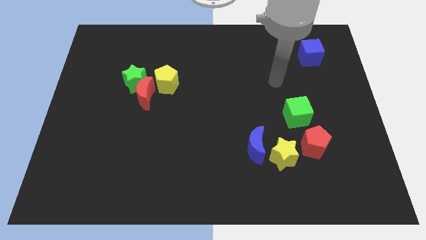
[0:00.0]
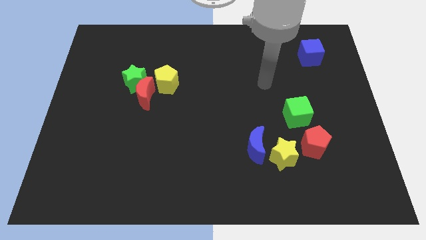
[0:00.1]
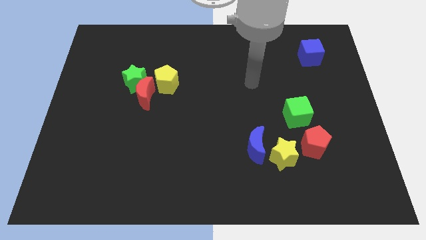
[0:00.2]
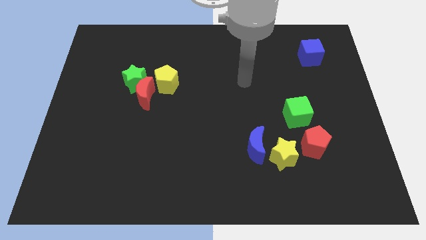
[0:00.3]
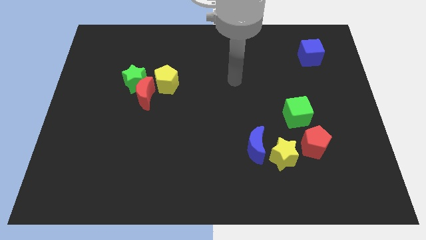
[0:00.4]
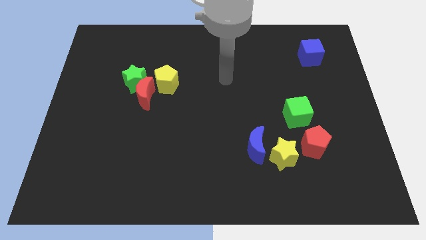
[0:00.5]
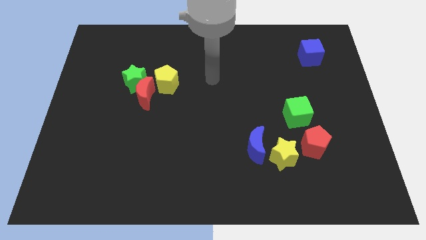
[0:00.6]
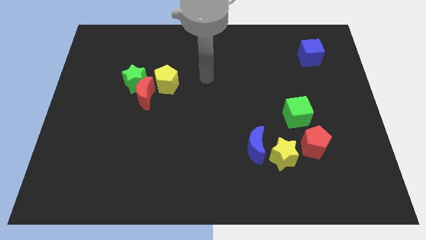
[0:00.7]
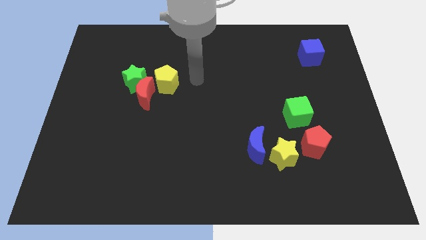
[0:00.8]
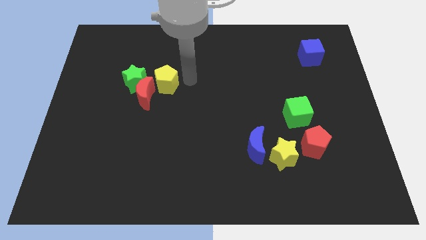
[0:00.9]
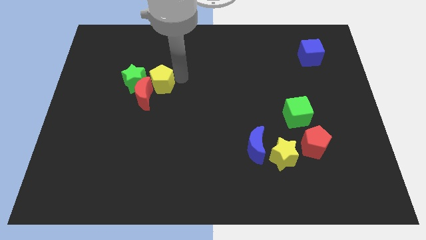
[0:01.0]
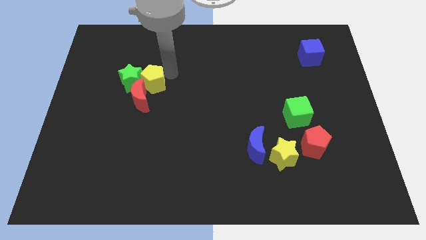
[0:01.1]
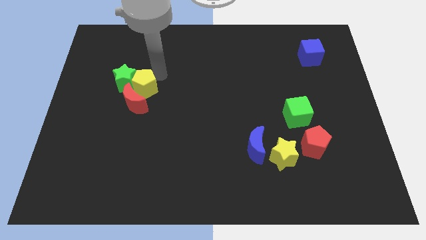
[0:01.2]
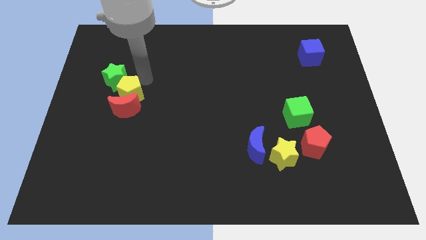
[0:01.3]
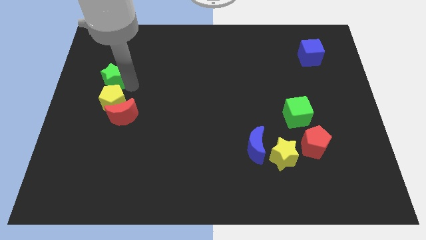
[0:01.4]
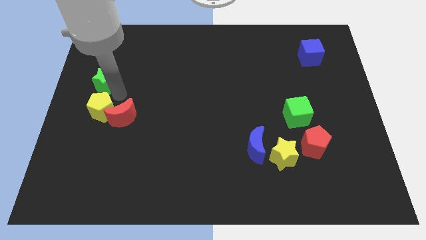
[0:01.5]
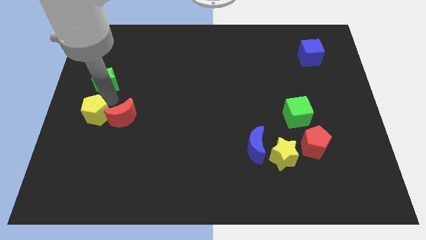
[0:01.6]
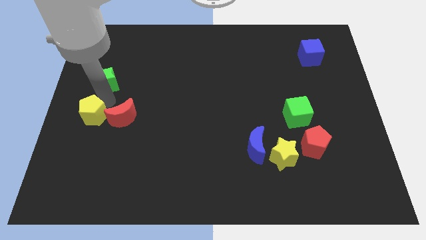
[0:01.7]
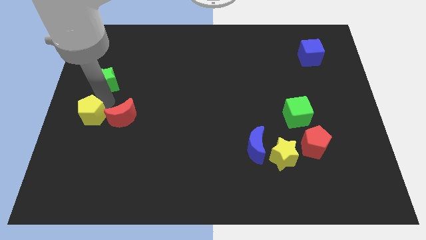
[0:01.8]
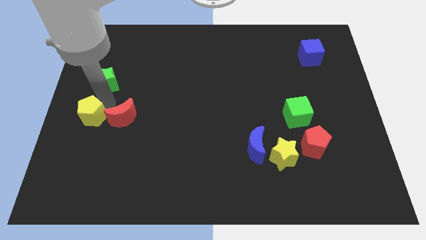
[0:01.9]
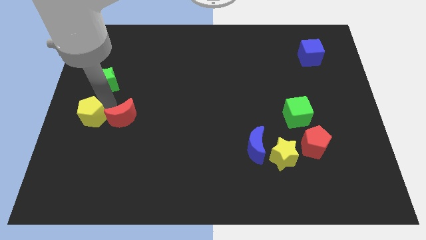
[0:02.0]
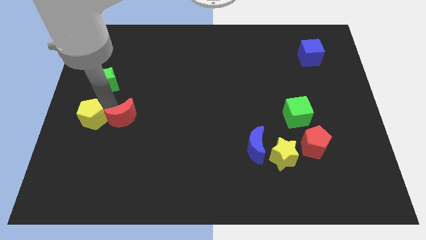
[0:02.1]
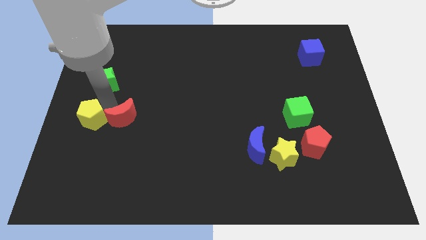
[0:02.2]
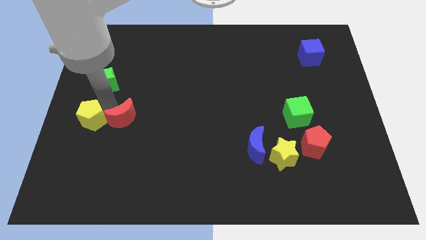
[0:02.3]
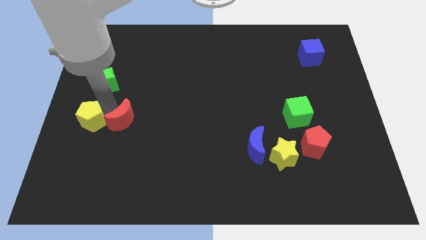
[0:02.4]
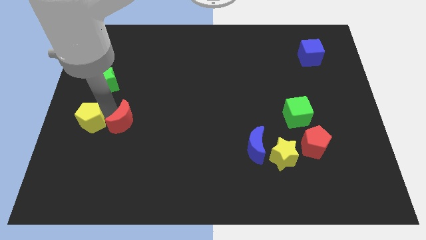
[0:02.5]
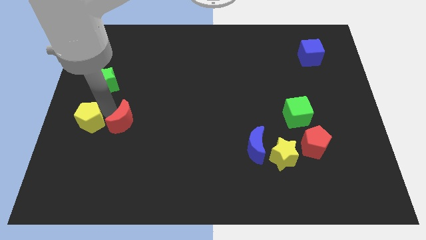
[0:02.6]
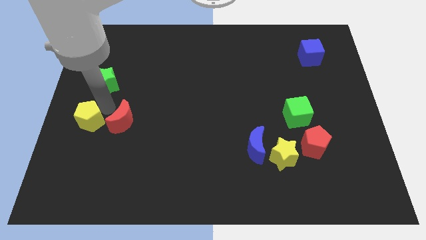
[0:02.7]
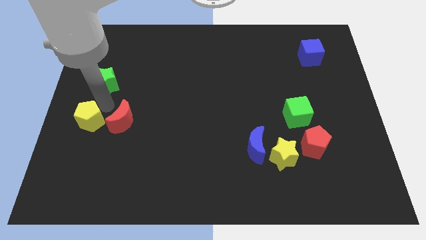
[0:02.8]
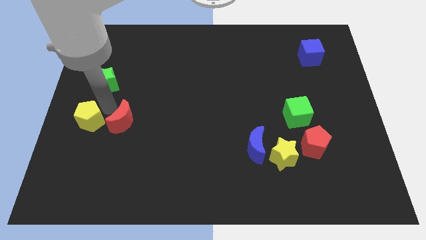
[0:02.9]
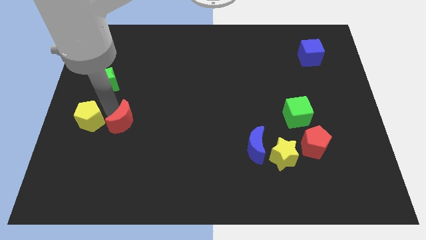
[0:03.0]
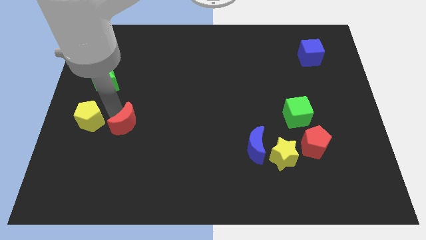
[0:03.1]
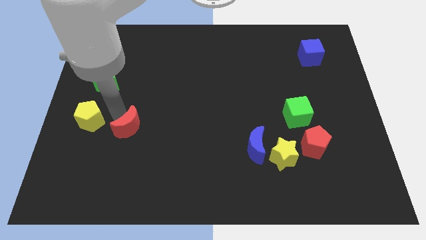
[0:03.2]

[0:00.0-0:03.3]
separate the red moon from the green star and yellow pentagon

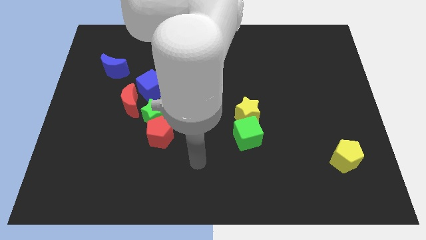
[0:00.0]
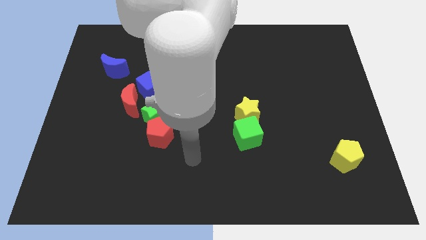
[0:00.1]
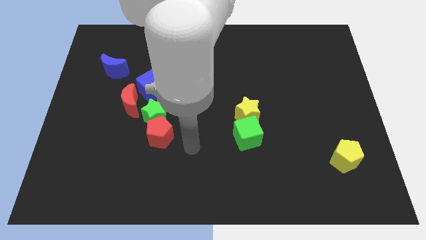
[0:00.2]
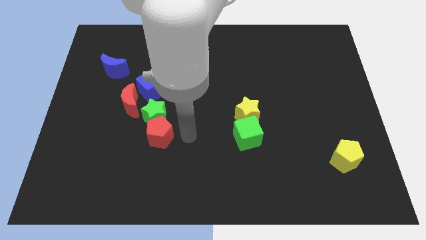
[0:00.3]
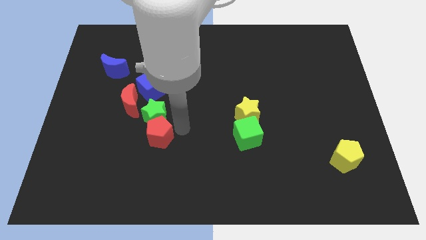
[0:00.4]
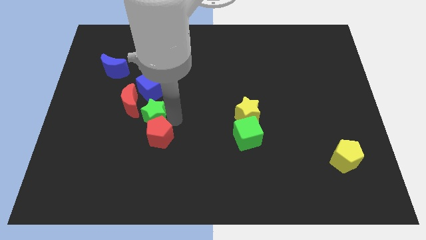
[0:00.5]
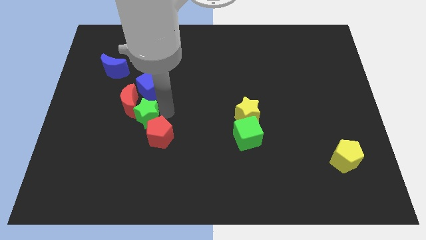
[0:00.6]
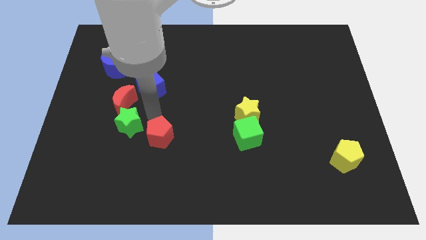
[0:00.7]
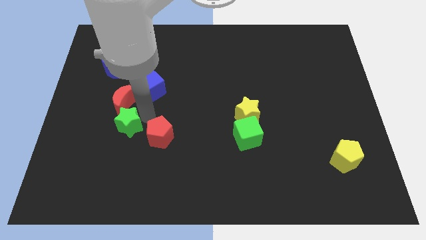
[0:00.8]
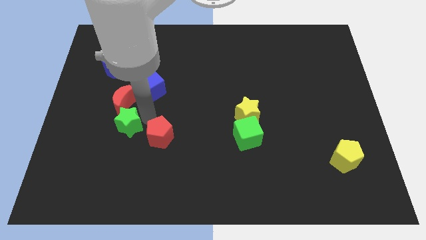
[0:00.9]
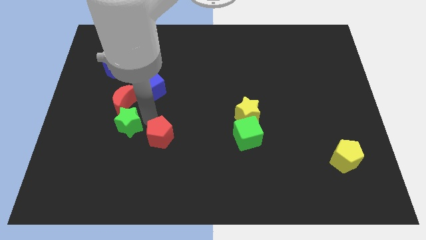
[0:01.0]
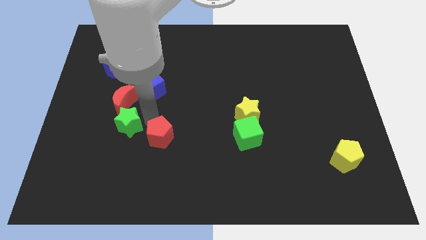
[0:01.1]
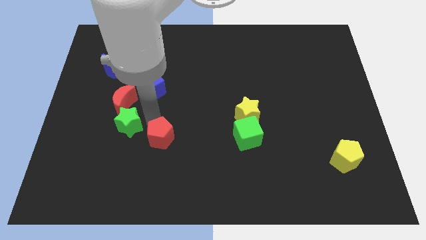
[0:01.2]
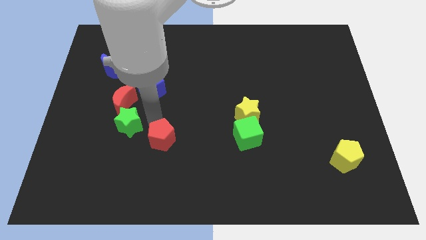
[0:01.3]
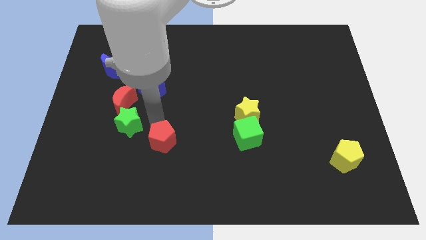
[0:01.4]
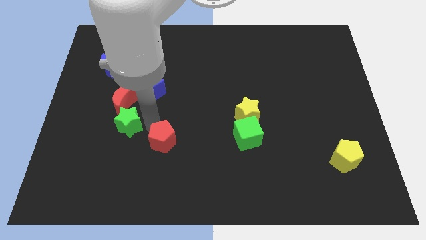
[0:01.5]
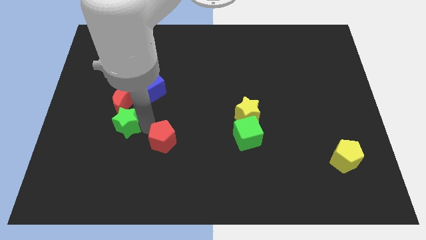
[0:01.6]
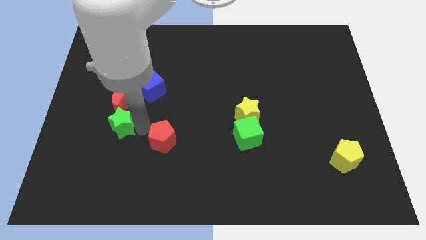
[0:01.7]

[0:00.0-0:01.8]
pull the red pentagon apart from the green star

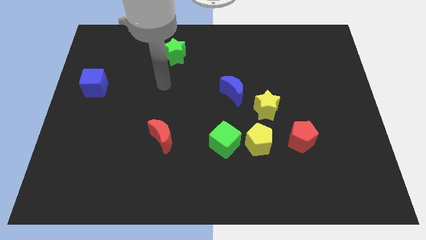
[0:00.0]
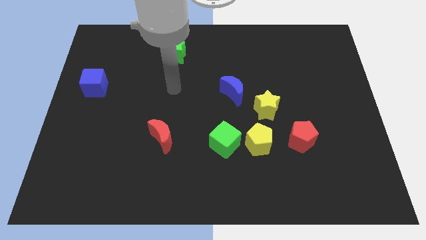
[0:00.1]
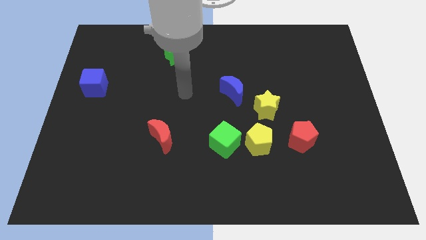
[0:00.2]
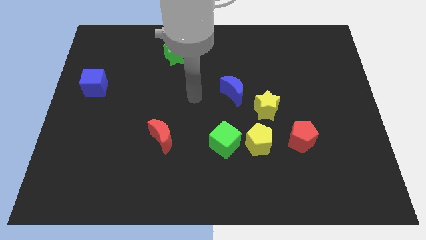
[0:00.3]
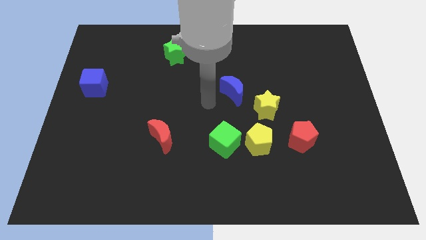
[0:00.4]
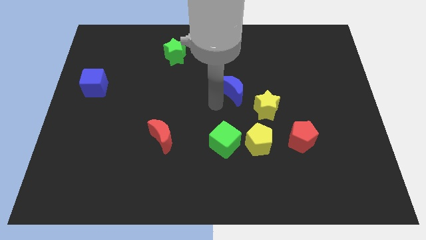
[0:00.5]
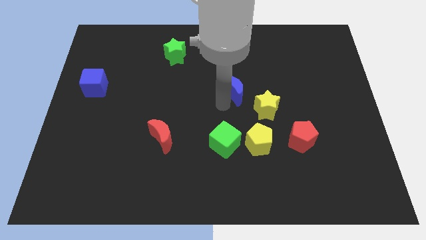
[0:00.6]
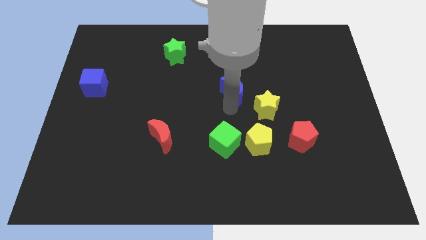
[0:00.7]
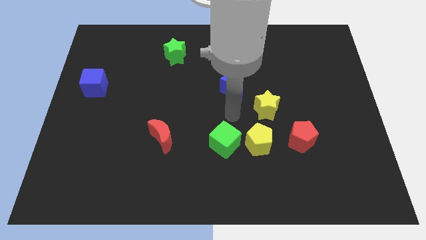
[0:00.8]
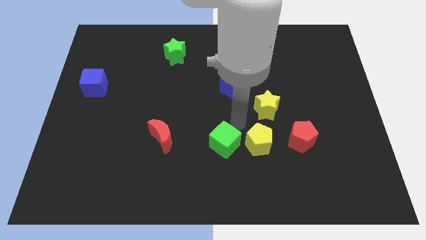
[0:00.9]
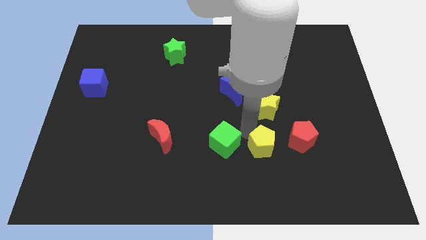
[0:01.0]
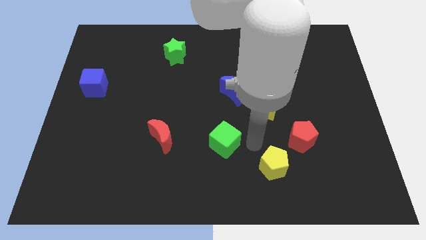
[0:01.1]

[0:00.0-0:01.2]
separate the green cube from the yellow pentagon

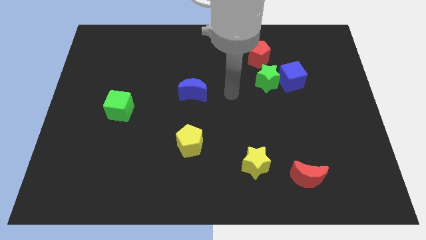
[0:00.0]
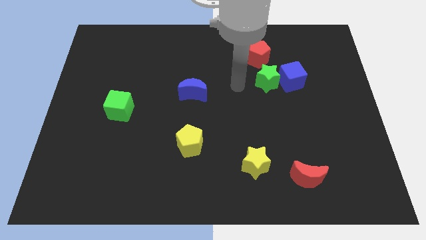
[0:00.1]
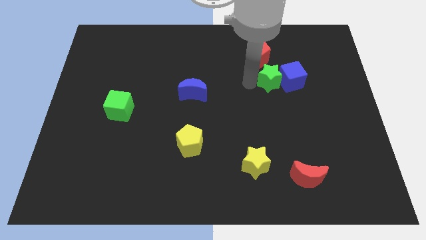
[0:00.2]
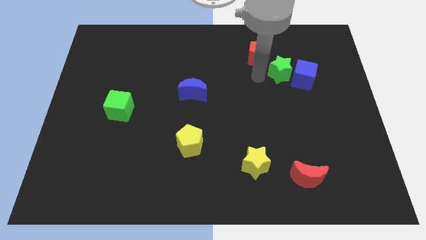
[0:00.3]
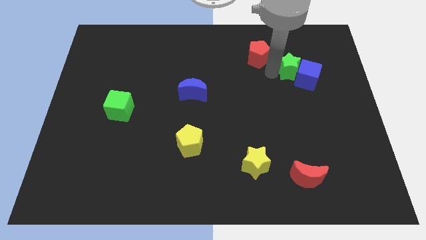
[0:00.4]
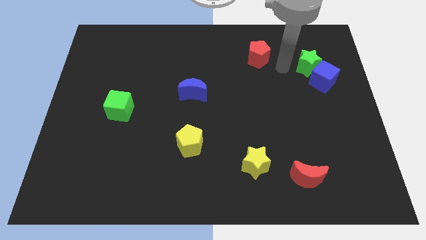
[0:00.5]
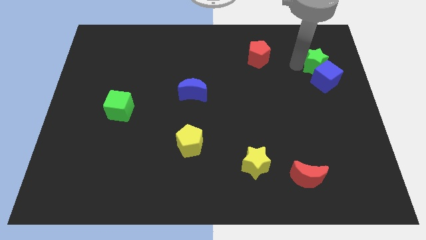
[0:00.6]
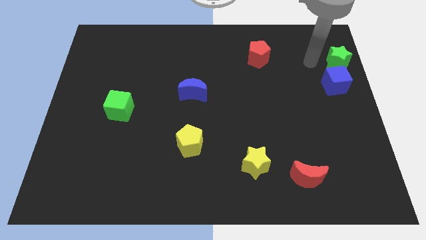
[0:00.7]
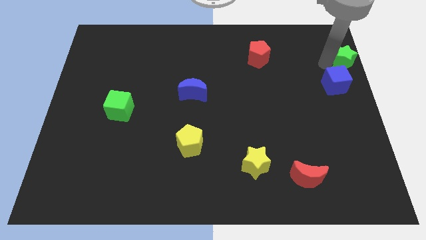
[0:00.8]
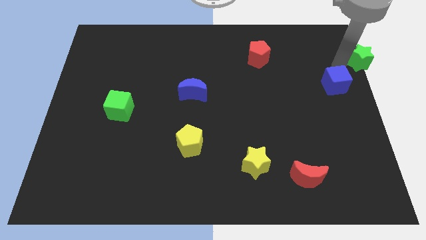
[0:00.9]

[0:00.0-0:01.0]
separate the blue cube from the green star

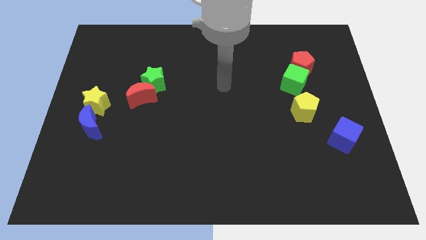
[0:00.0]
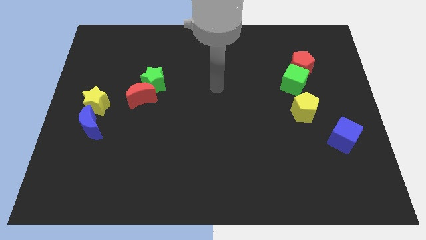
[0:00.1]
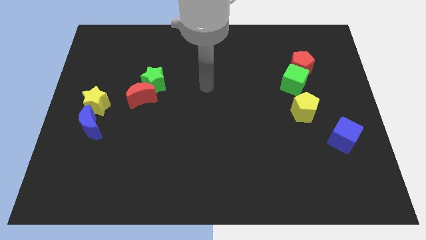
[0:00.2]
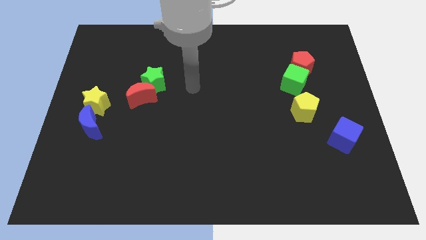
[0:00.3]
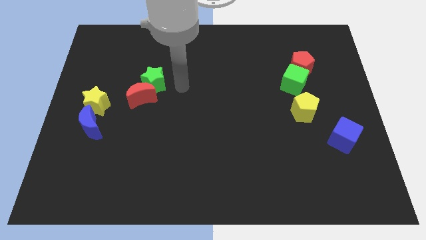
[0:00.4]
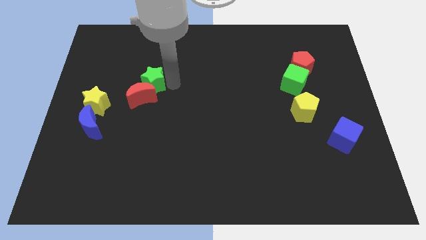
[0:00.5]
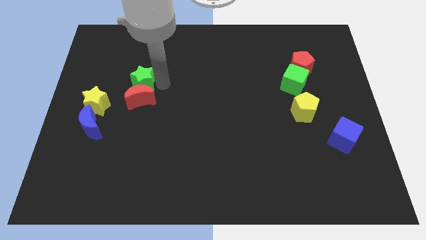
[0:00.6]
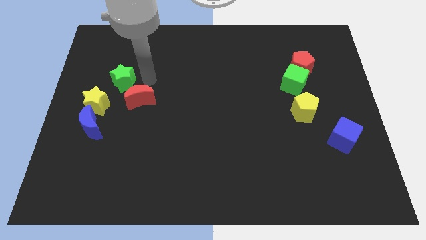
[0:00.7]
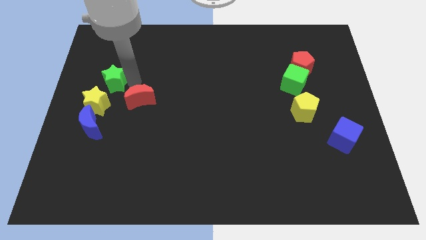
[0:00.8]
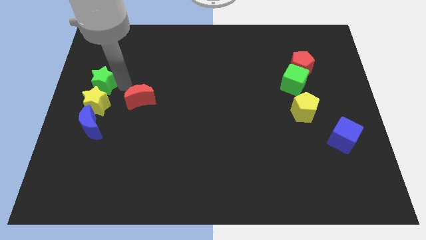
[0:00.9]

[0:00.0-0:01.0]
separate the red moon from the green star

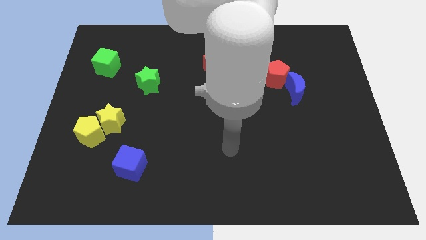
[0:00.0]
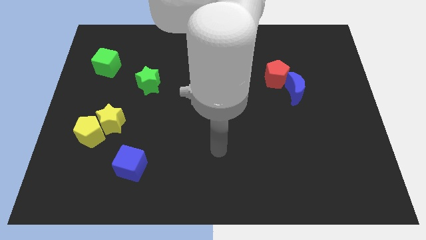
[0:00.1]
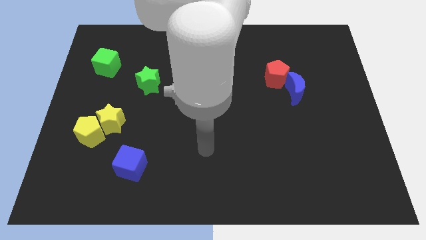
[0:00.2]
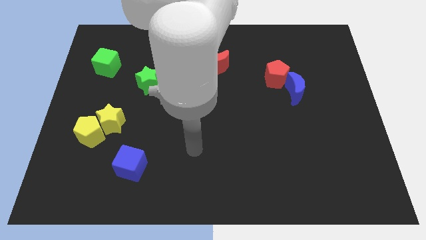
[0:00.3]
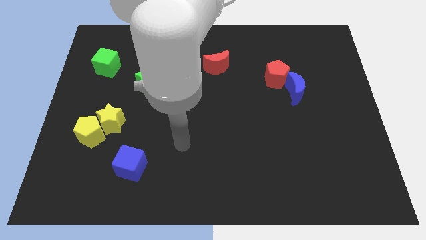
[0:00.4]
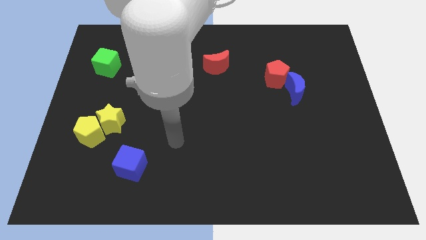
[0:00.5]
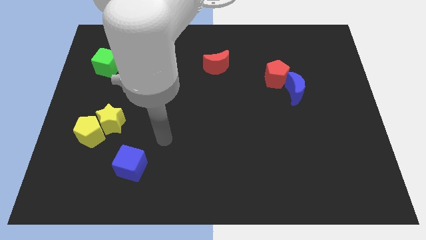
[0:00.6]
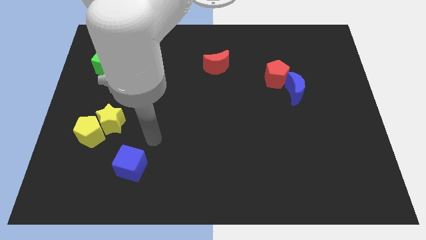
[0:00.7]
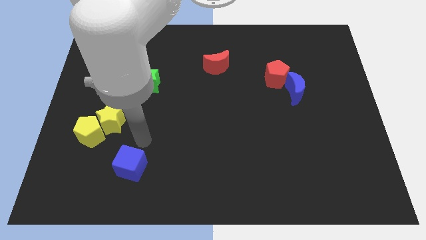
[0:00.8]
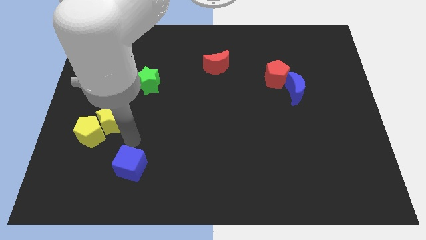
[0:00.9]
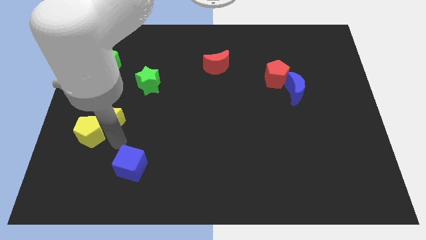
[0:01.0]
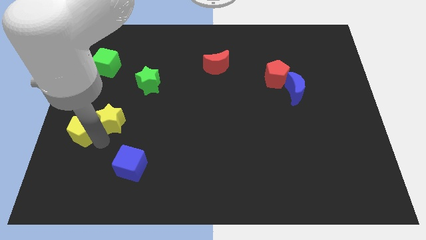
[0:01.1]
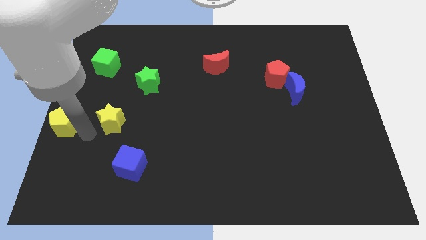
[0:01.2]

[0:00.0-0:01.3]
pull the yellow star apart from the yellow pentagon
